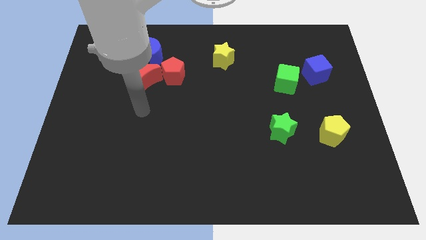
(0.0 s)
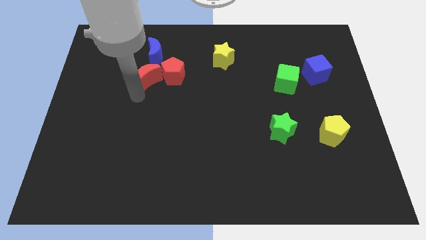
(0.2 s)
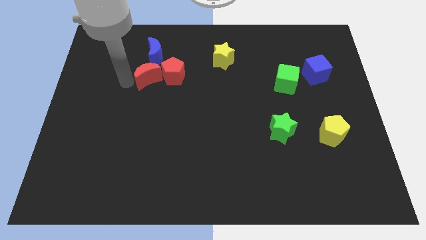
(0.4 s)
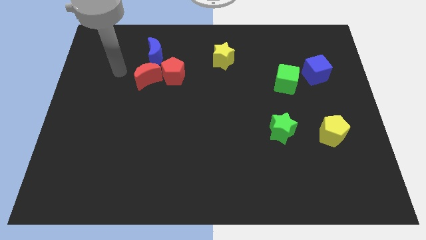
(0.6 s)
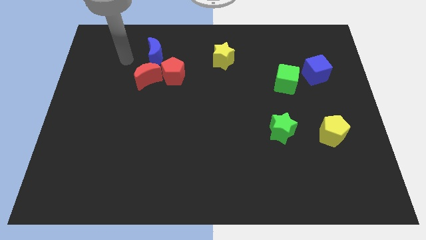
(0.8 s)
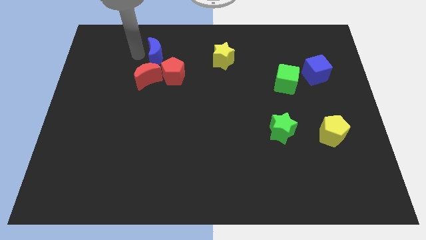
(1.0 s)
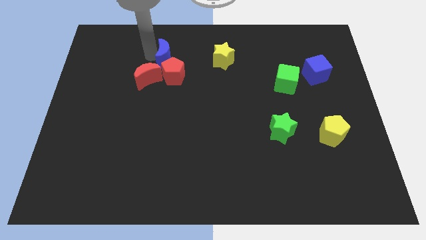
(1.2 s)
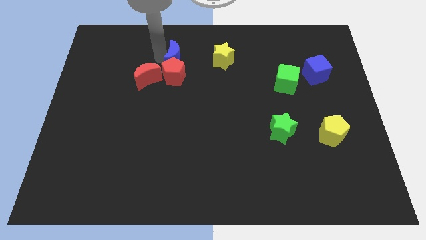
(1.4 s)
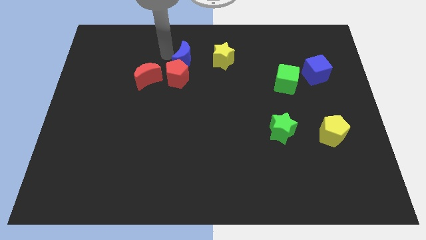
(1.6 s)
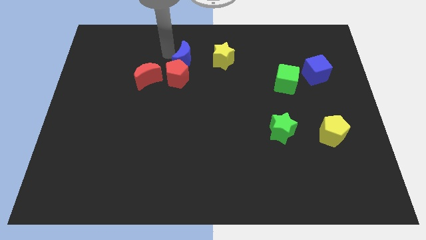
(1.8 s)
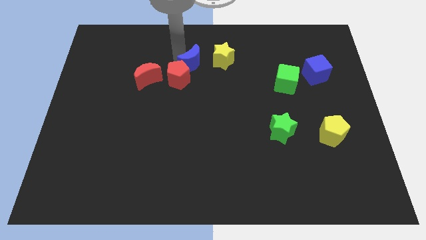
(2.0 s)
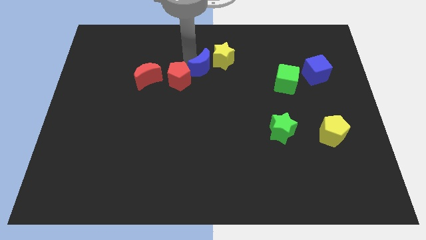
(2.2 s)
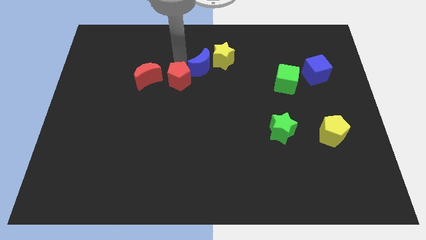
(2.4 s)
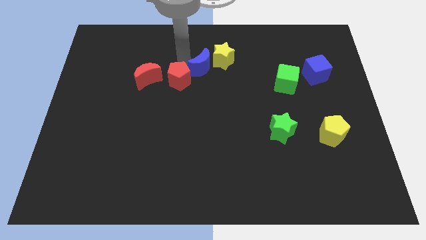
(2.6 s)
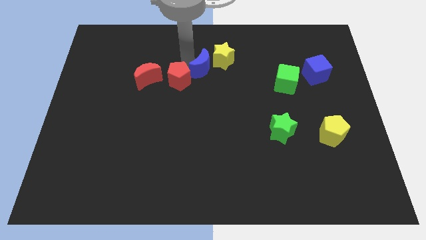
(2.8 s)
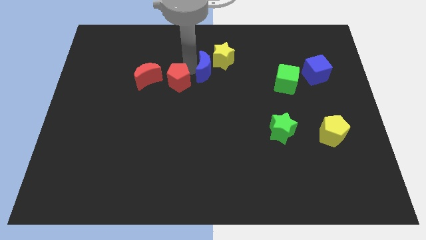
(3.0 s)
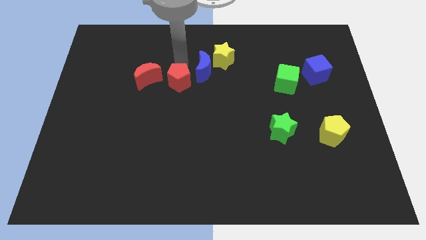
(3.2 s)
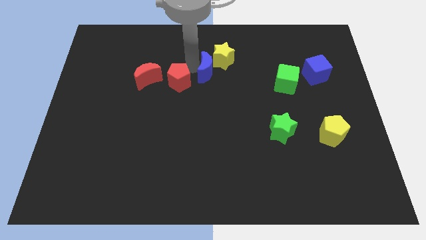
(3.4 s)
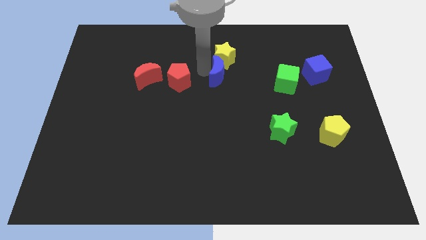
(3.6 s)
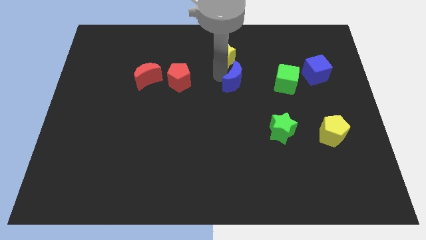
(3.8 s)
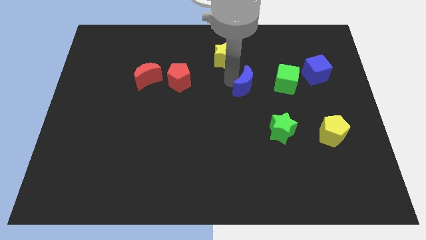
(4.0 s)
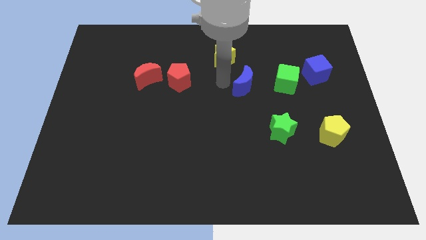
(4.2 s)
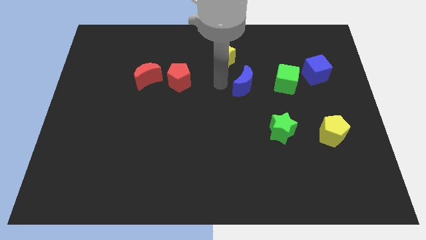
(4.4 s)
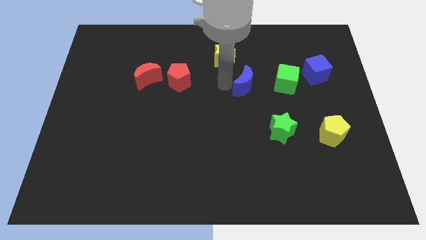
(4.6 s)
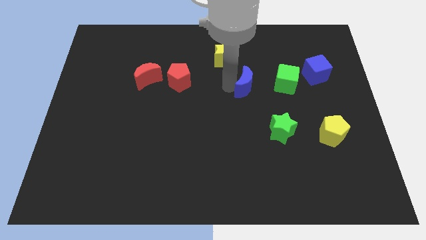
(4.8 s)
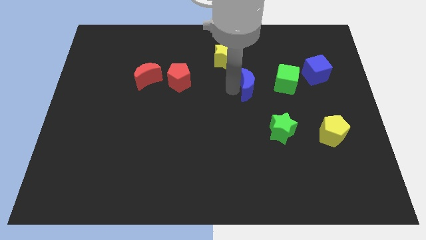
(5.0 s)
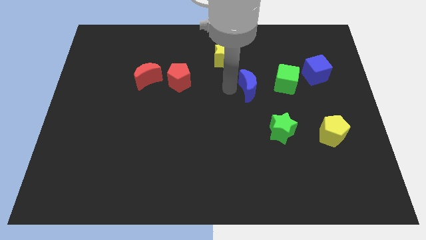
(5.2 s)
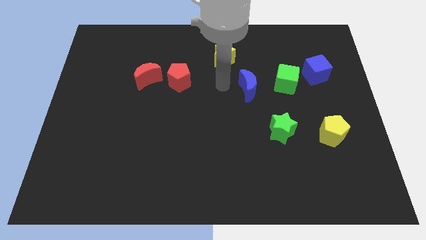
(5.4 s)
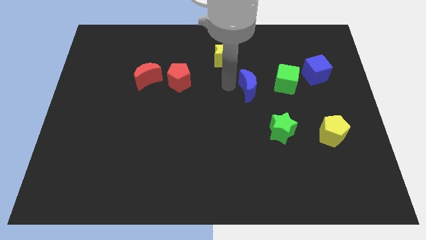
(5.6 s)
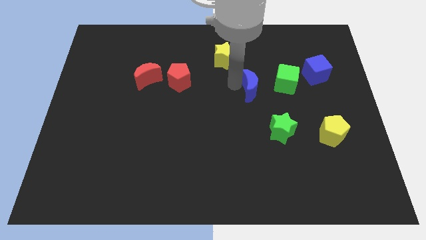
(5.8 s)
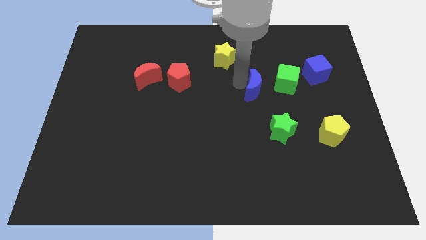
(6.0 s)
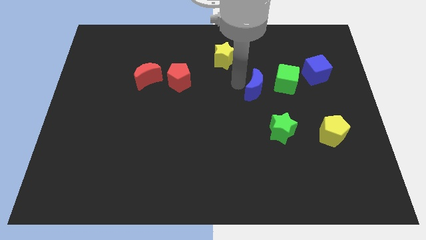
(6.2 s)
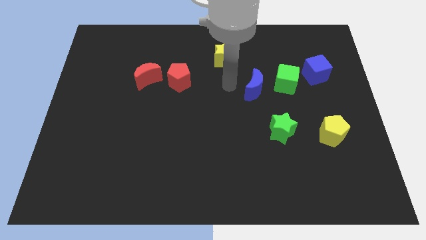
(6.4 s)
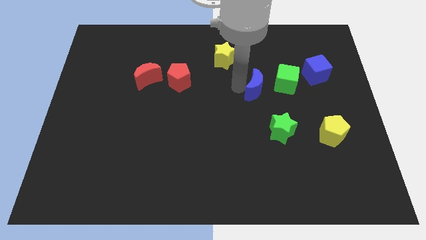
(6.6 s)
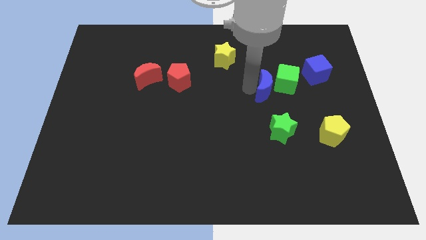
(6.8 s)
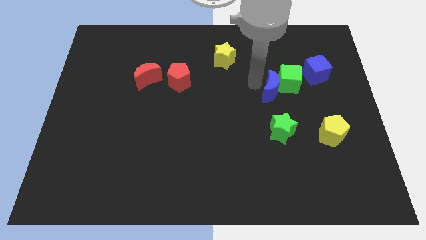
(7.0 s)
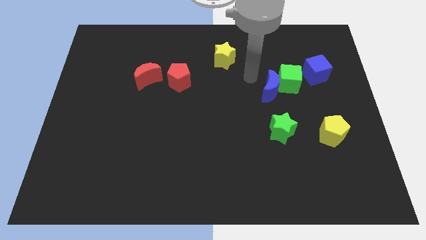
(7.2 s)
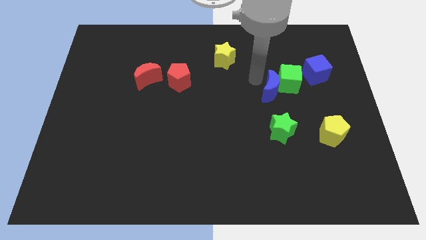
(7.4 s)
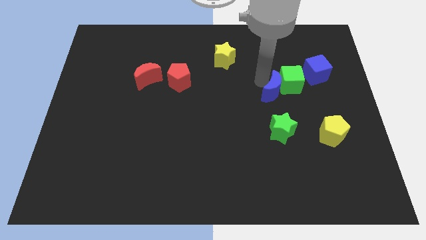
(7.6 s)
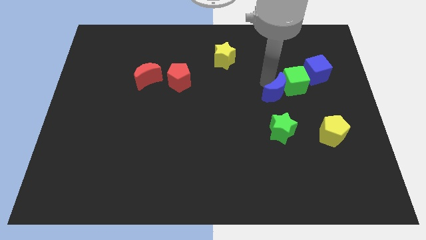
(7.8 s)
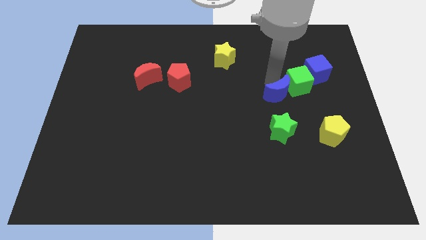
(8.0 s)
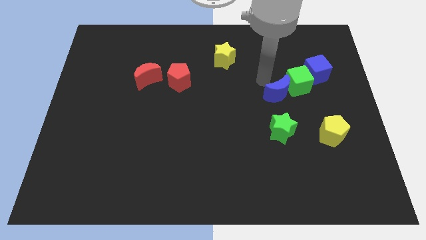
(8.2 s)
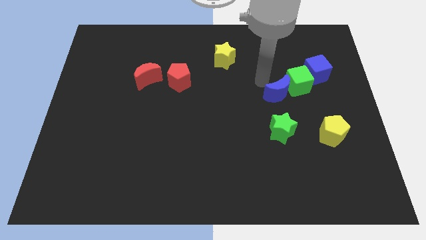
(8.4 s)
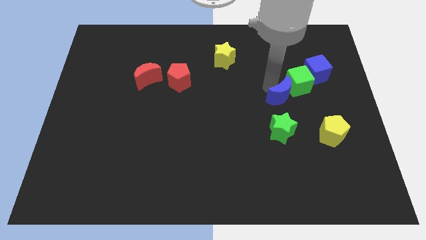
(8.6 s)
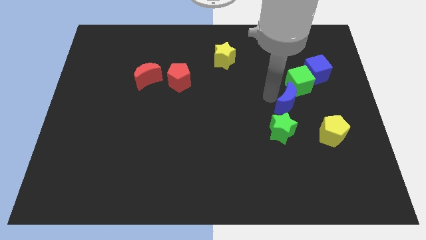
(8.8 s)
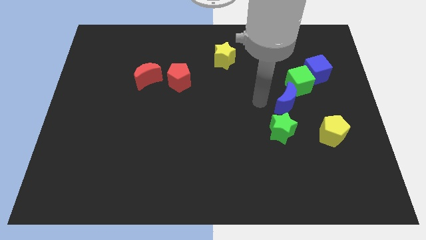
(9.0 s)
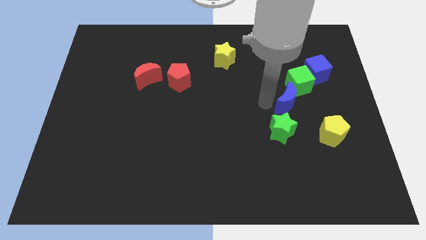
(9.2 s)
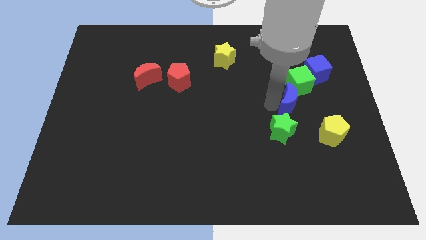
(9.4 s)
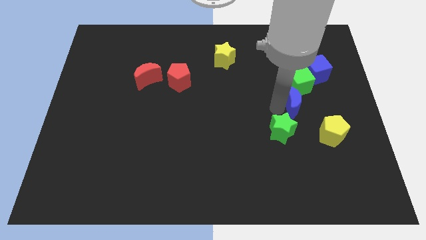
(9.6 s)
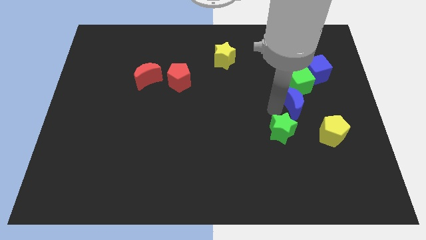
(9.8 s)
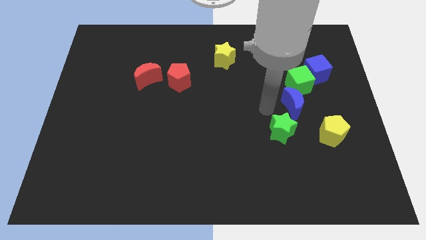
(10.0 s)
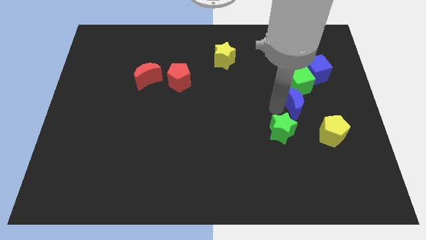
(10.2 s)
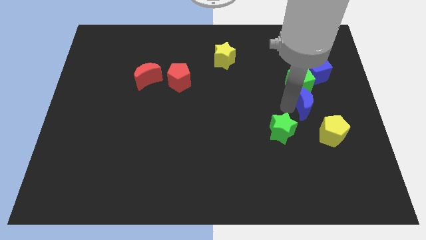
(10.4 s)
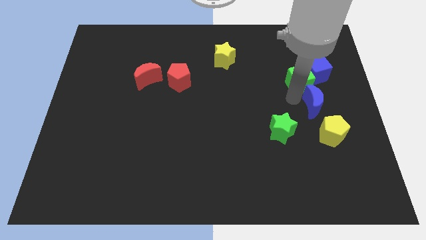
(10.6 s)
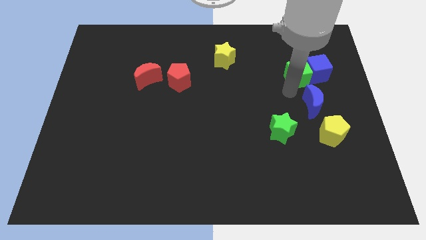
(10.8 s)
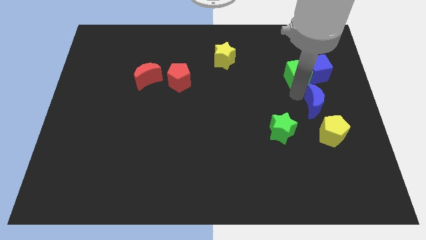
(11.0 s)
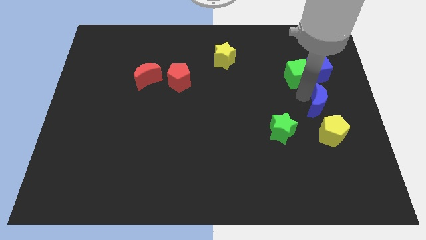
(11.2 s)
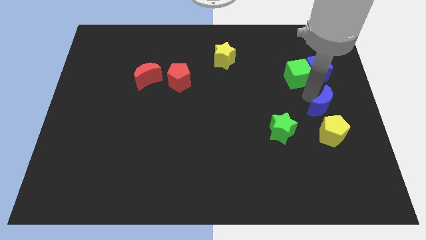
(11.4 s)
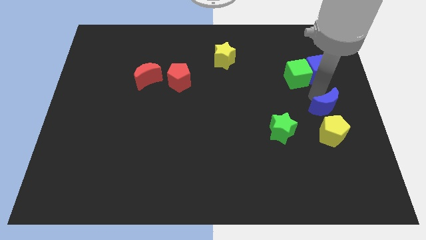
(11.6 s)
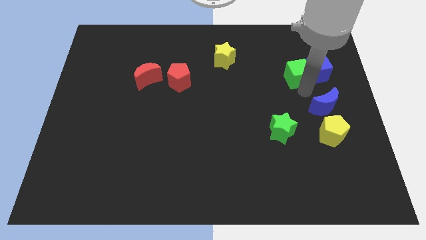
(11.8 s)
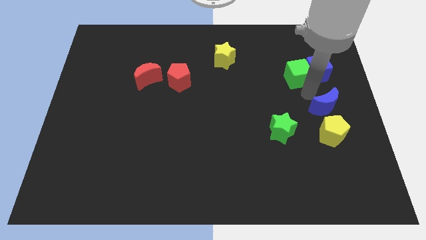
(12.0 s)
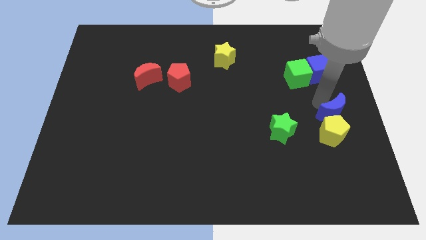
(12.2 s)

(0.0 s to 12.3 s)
slide the blue moon just right of the green star

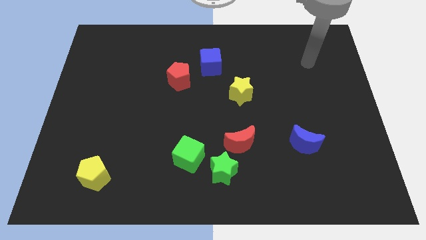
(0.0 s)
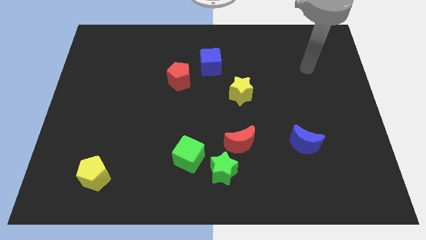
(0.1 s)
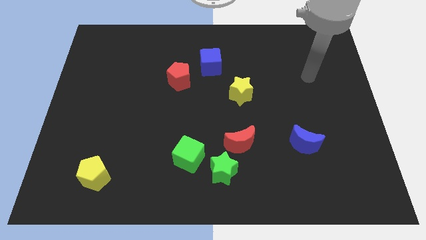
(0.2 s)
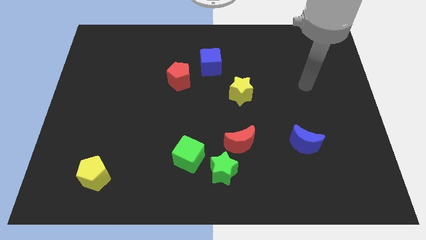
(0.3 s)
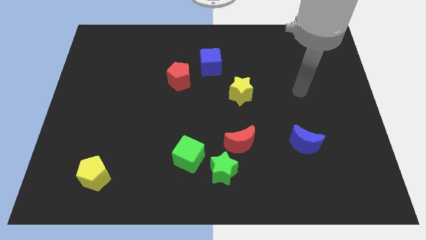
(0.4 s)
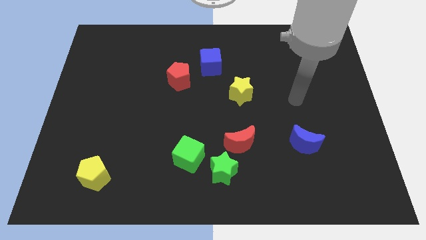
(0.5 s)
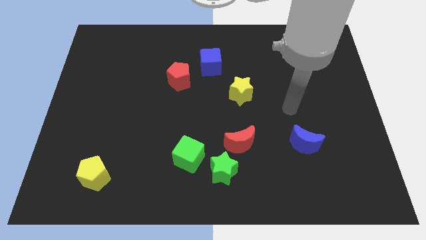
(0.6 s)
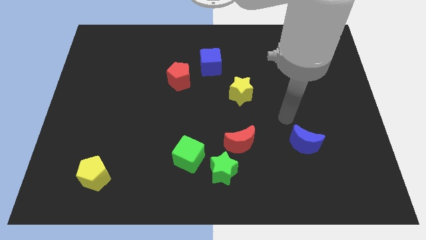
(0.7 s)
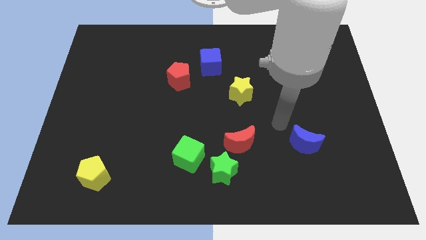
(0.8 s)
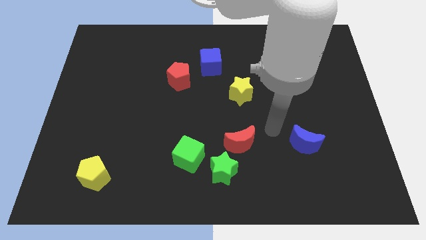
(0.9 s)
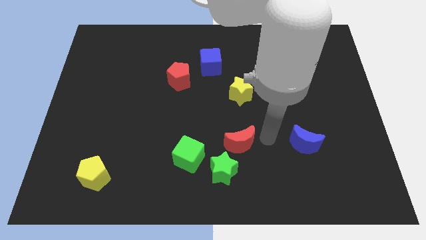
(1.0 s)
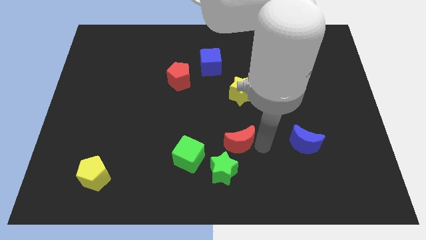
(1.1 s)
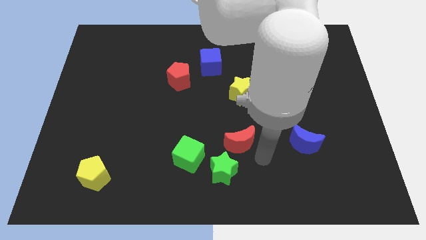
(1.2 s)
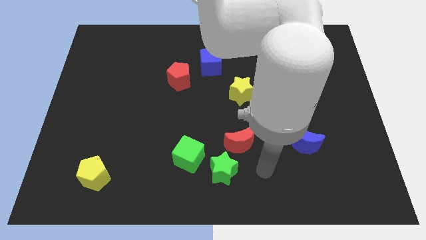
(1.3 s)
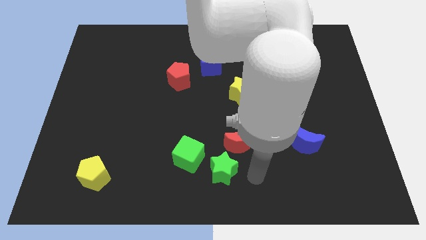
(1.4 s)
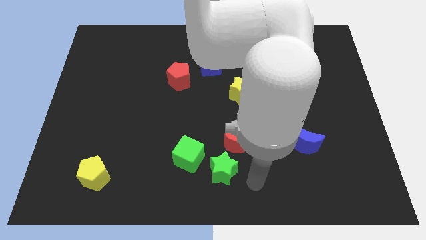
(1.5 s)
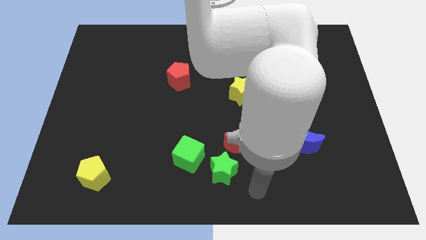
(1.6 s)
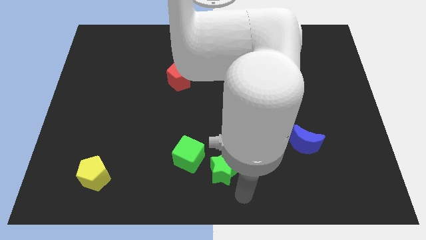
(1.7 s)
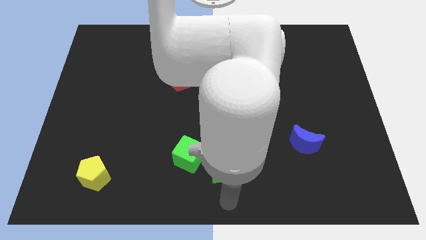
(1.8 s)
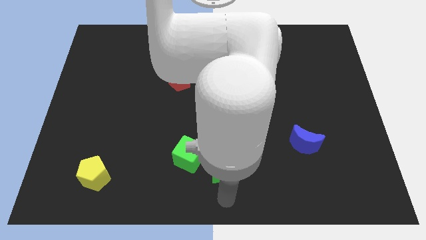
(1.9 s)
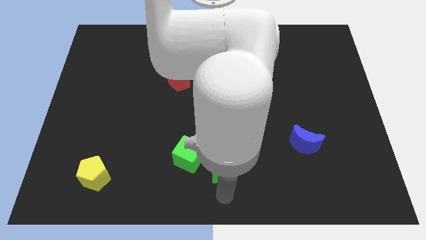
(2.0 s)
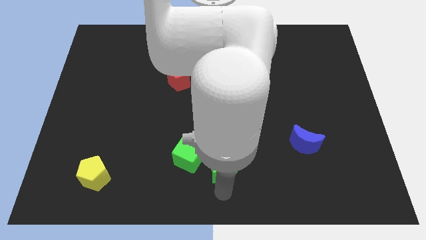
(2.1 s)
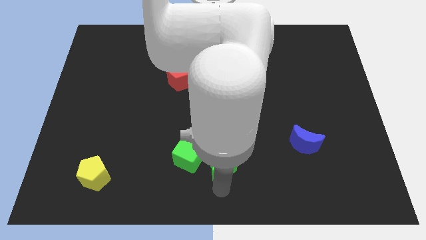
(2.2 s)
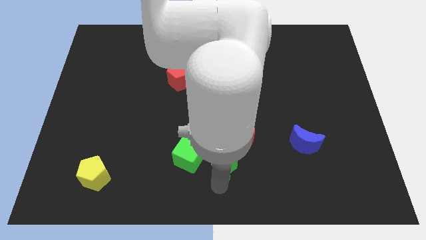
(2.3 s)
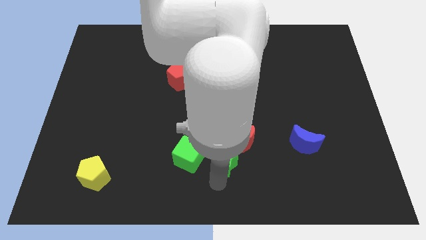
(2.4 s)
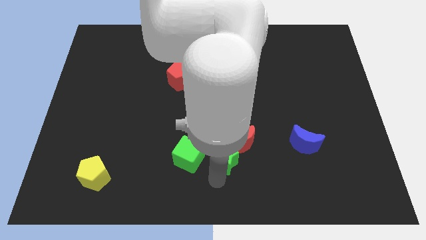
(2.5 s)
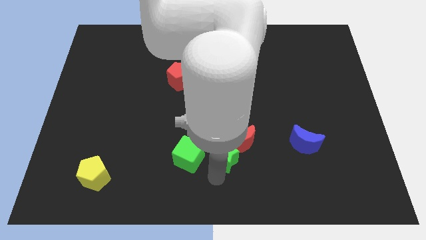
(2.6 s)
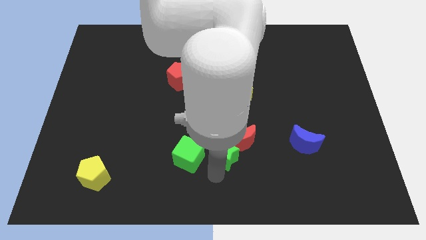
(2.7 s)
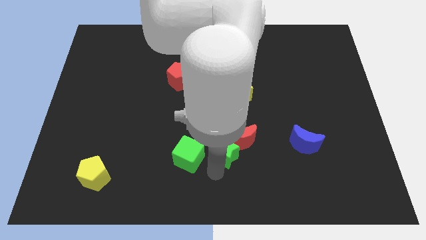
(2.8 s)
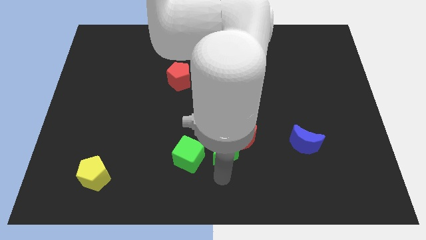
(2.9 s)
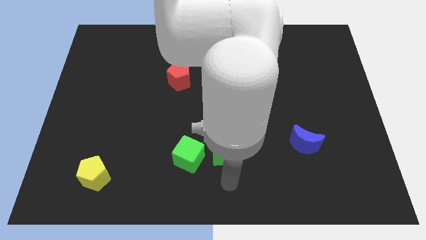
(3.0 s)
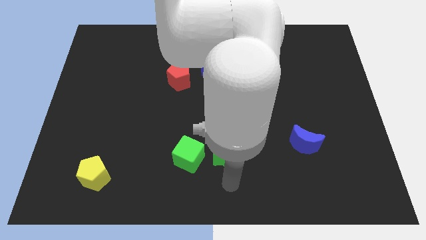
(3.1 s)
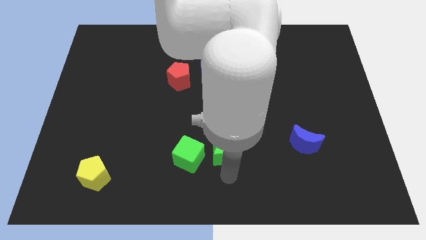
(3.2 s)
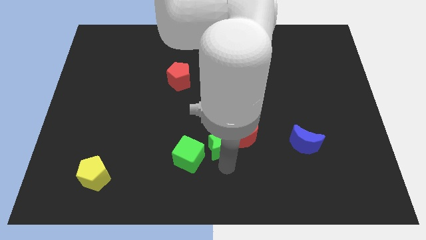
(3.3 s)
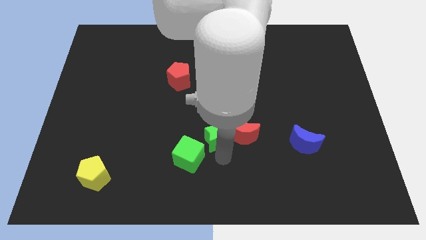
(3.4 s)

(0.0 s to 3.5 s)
put the green star to the top left of the red moon
